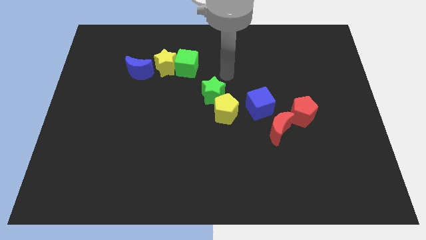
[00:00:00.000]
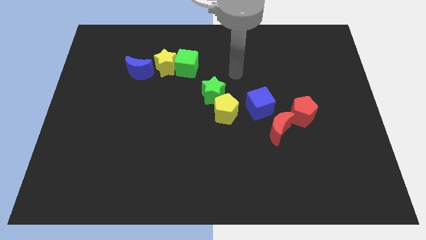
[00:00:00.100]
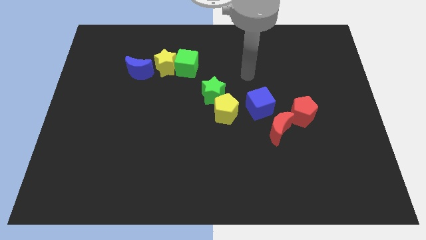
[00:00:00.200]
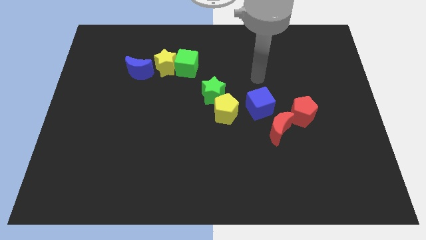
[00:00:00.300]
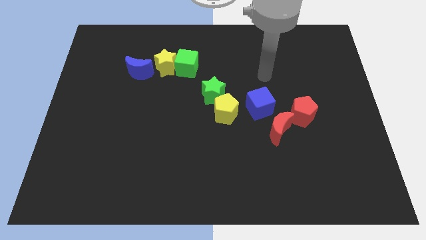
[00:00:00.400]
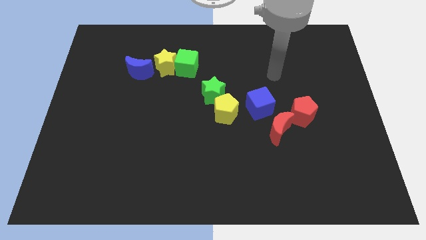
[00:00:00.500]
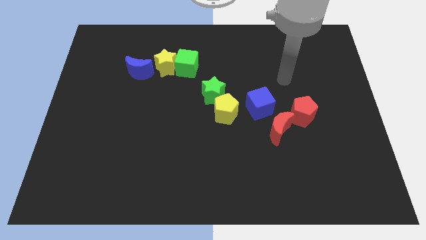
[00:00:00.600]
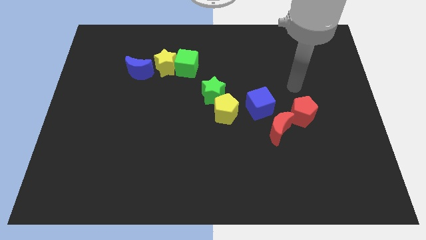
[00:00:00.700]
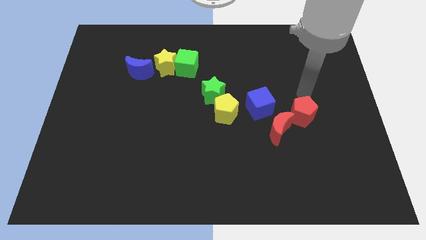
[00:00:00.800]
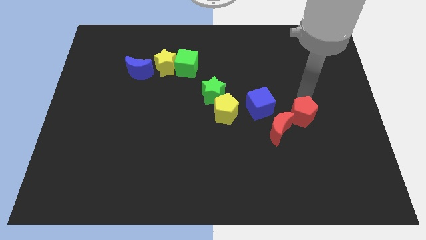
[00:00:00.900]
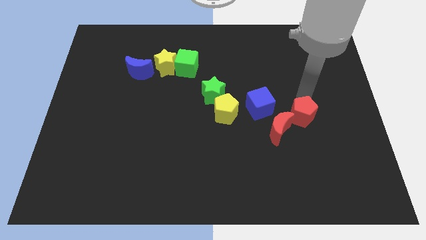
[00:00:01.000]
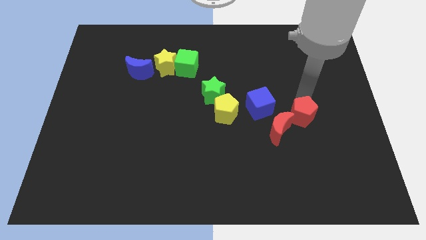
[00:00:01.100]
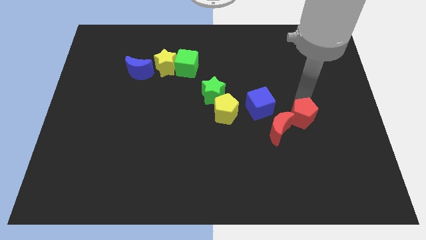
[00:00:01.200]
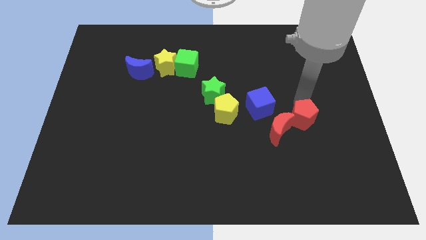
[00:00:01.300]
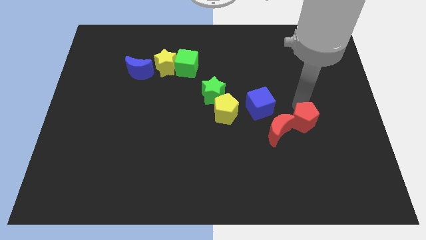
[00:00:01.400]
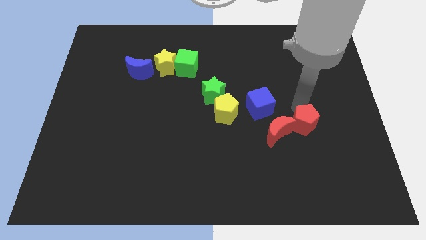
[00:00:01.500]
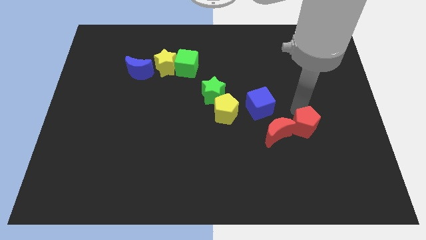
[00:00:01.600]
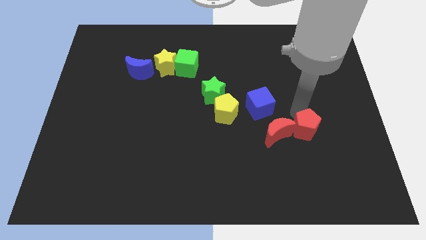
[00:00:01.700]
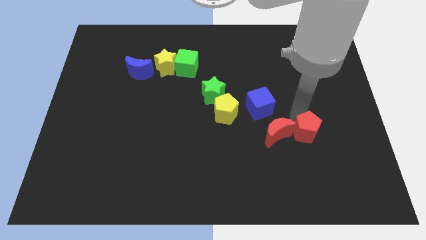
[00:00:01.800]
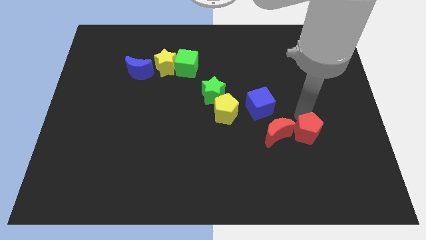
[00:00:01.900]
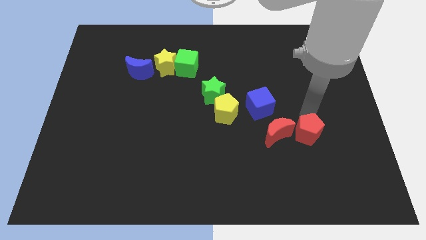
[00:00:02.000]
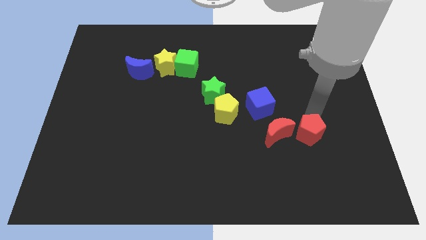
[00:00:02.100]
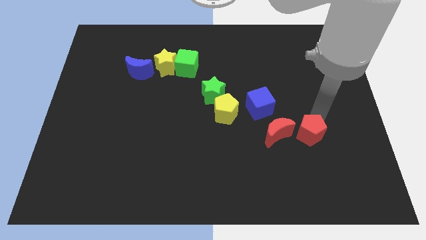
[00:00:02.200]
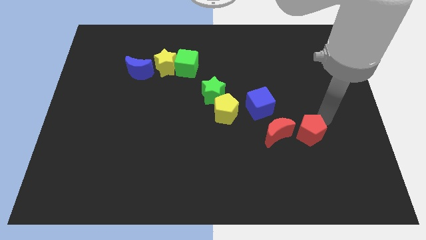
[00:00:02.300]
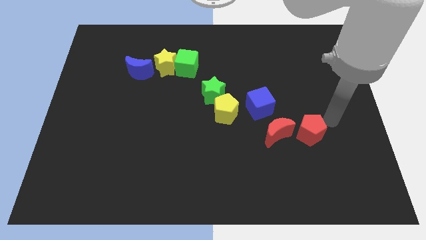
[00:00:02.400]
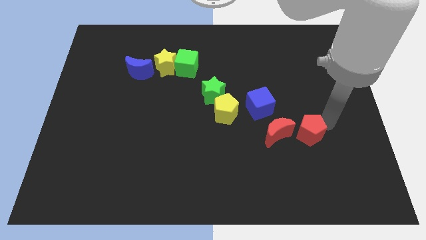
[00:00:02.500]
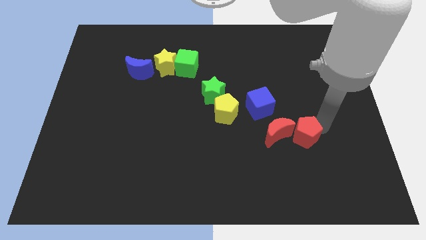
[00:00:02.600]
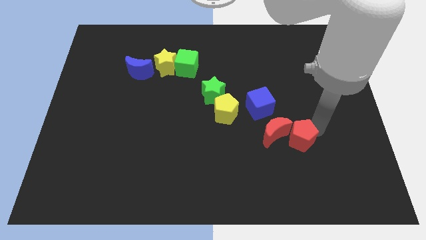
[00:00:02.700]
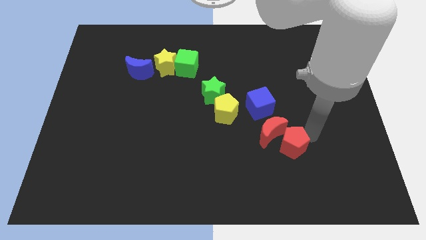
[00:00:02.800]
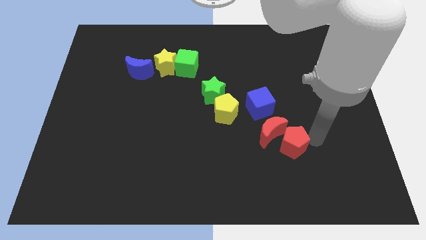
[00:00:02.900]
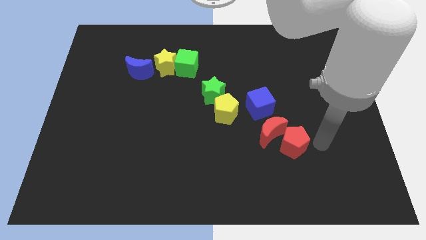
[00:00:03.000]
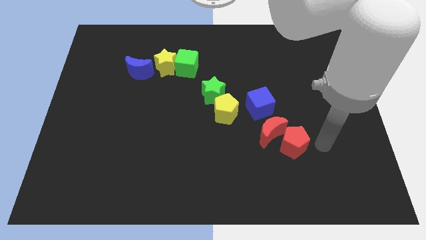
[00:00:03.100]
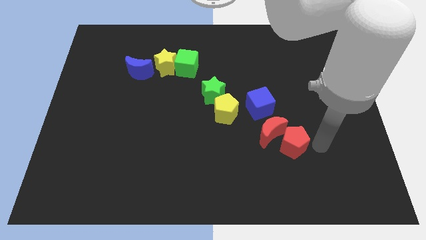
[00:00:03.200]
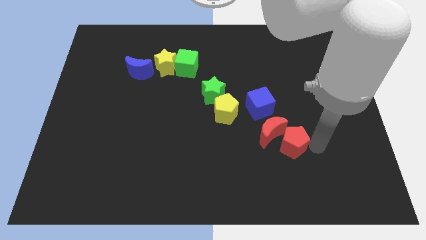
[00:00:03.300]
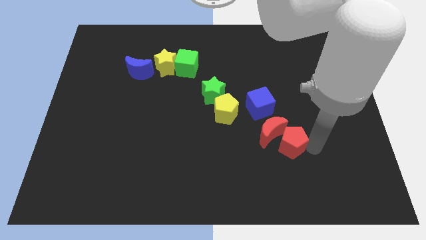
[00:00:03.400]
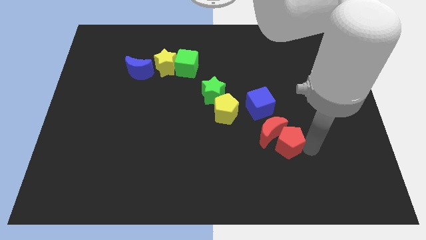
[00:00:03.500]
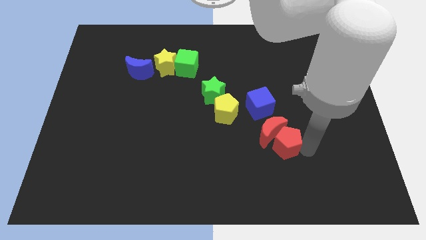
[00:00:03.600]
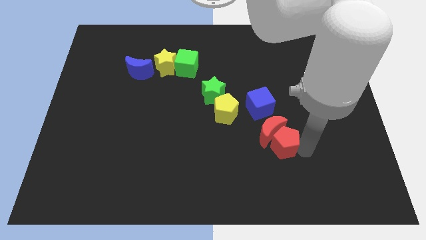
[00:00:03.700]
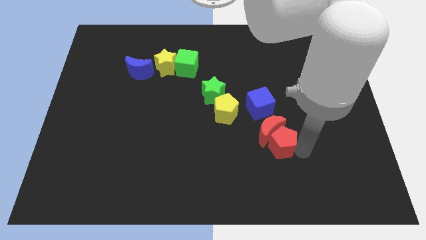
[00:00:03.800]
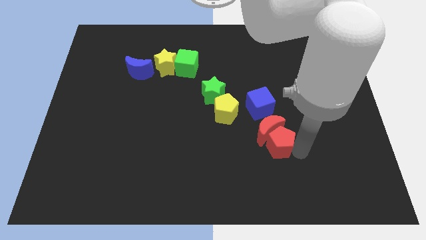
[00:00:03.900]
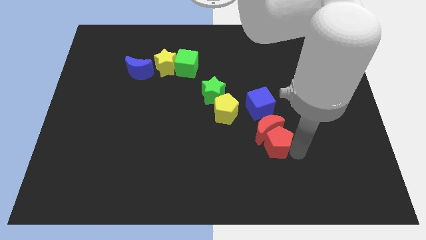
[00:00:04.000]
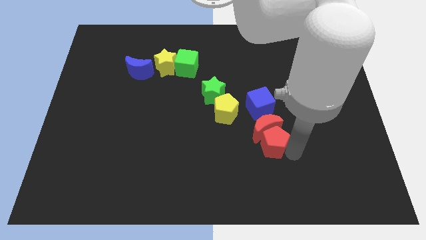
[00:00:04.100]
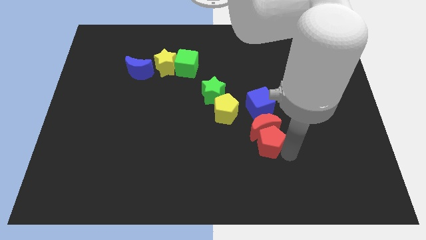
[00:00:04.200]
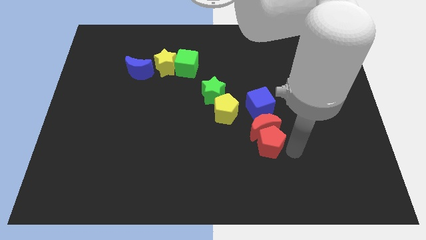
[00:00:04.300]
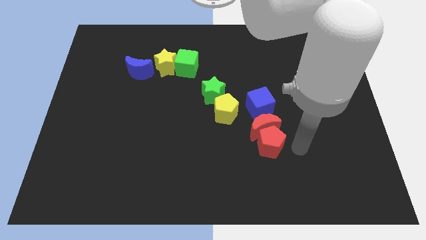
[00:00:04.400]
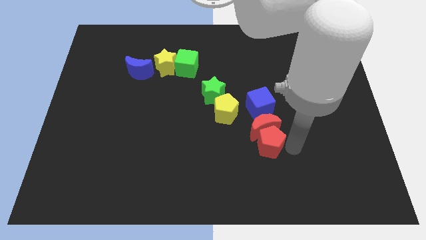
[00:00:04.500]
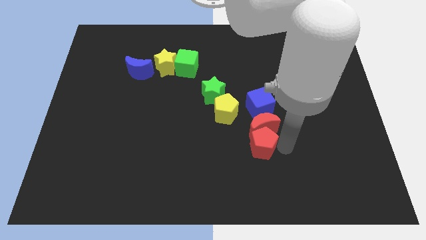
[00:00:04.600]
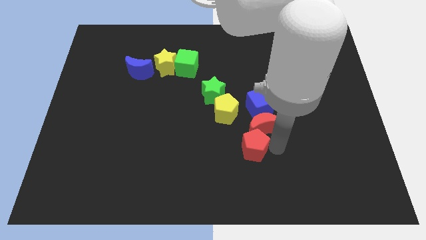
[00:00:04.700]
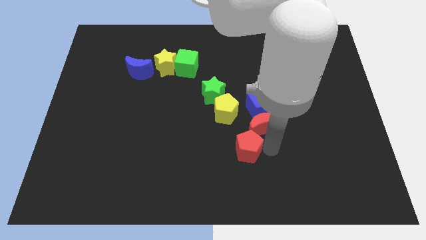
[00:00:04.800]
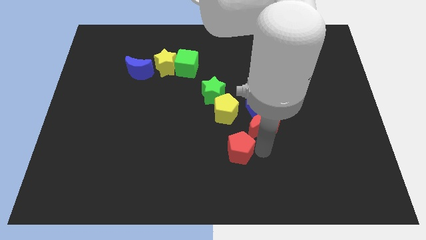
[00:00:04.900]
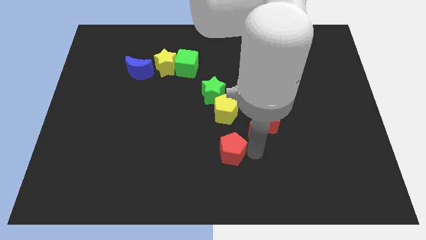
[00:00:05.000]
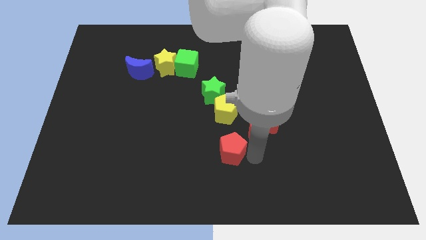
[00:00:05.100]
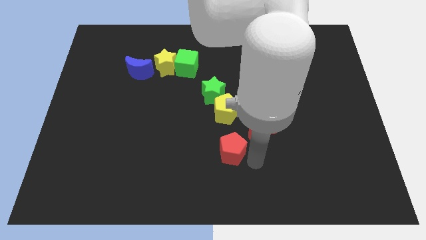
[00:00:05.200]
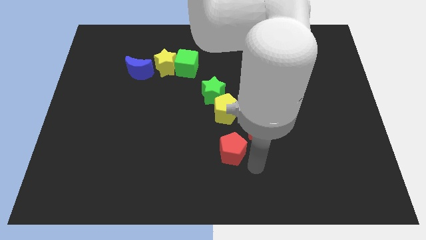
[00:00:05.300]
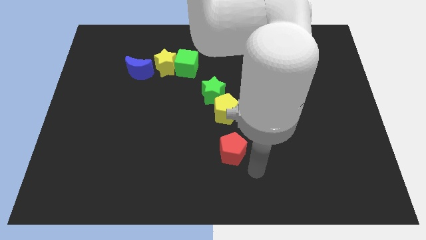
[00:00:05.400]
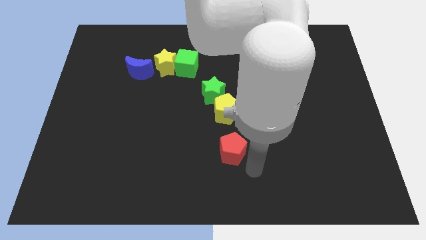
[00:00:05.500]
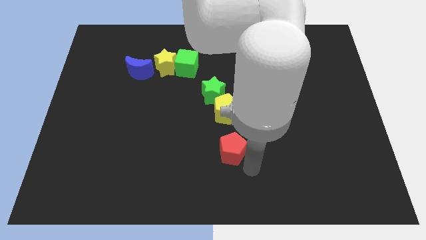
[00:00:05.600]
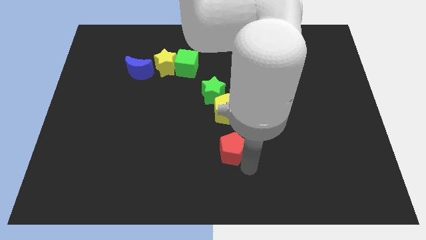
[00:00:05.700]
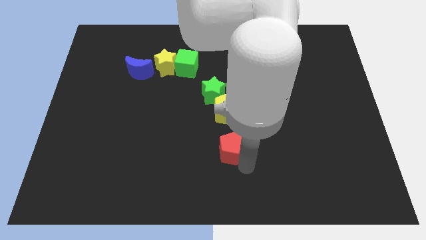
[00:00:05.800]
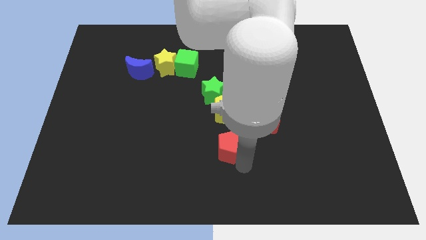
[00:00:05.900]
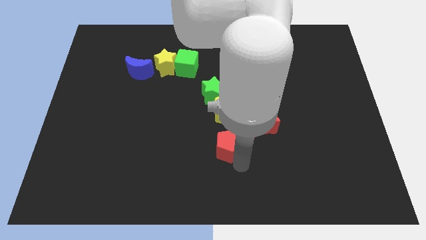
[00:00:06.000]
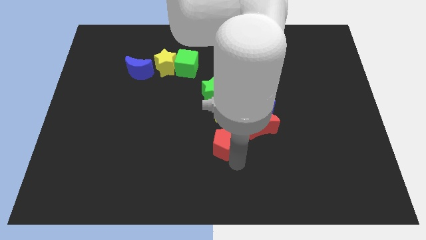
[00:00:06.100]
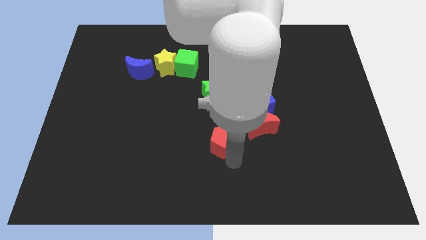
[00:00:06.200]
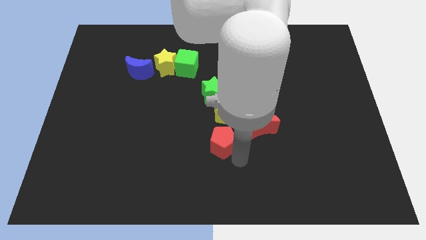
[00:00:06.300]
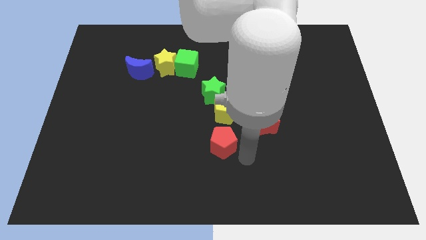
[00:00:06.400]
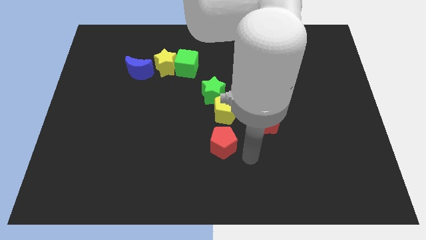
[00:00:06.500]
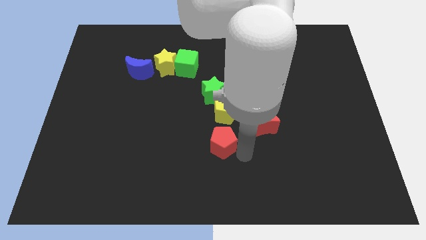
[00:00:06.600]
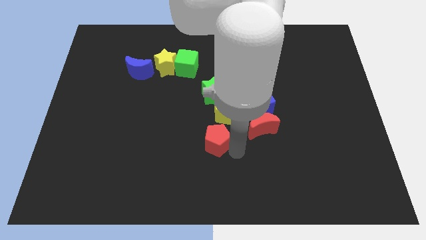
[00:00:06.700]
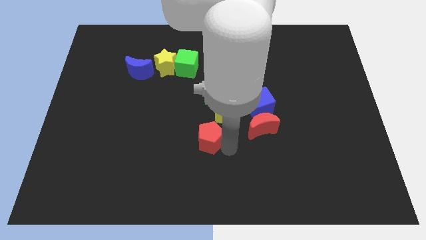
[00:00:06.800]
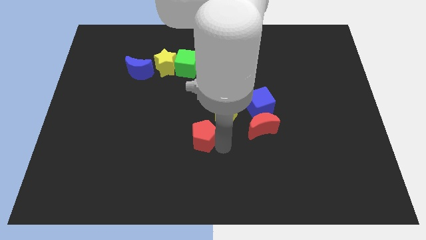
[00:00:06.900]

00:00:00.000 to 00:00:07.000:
slide the red pentagon left

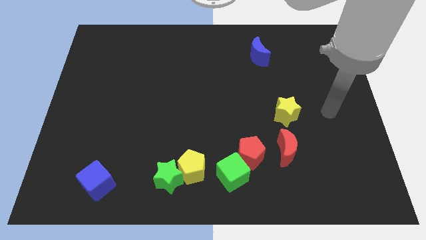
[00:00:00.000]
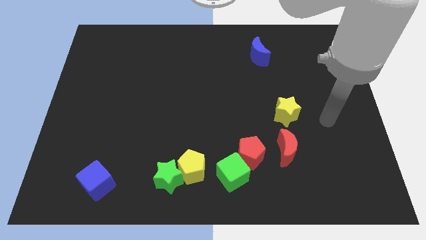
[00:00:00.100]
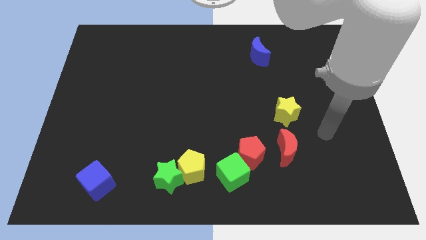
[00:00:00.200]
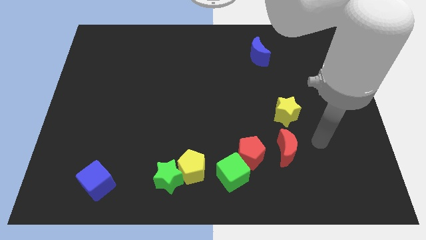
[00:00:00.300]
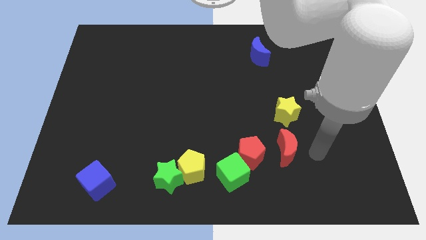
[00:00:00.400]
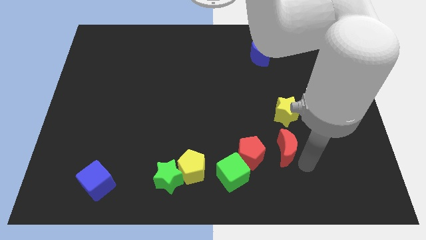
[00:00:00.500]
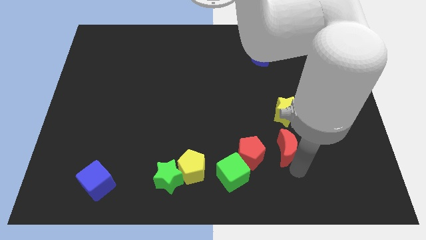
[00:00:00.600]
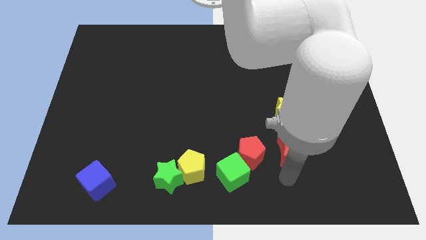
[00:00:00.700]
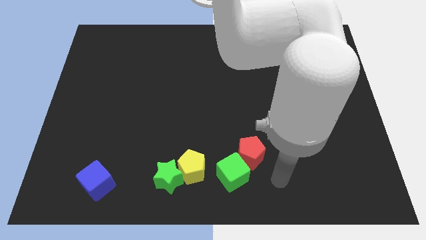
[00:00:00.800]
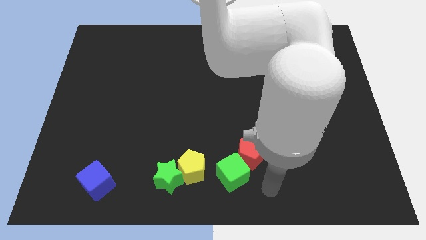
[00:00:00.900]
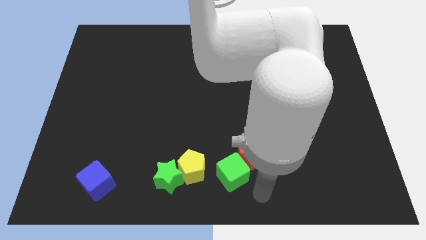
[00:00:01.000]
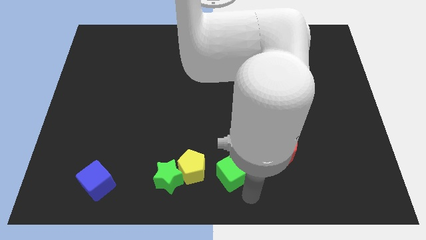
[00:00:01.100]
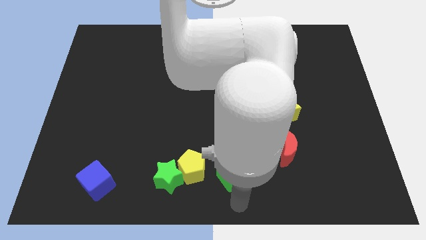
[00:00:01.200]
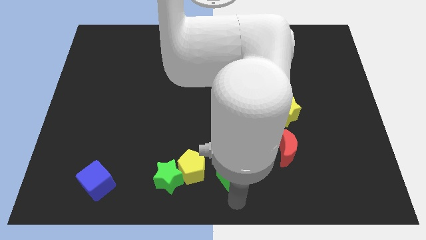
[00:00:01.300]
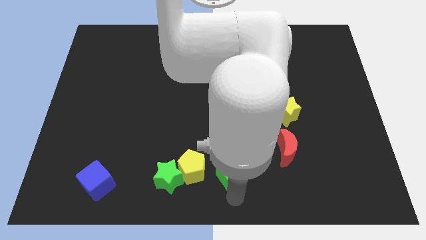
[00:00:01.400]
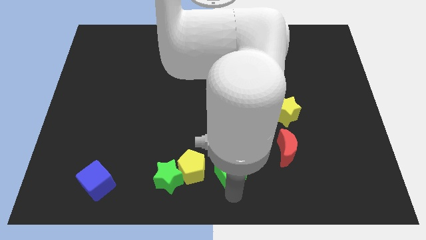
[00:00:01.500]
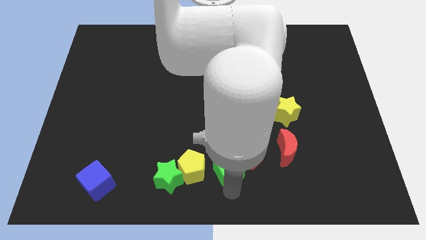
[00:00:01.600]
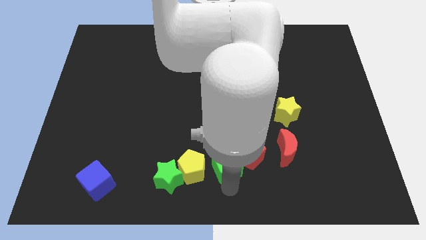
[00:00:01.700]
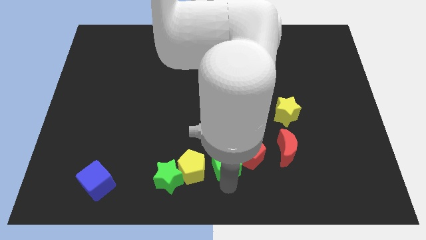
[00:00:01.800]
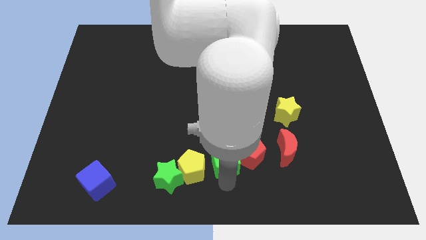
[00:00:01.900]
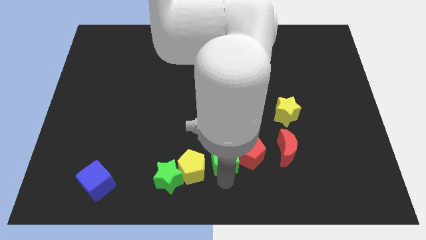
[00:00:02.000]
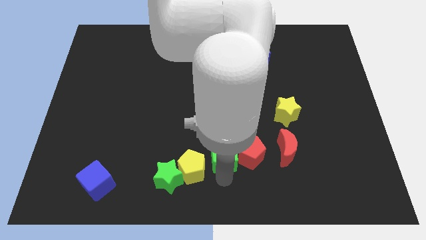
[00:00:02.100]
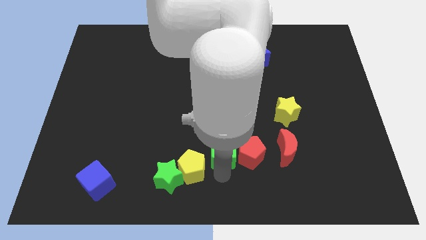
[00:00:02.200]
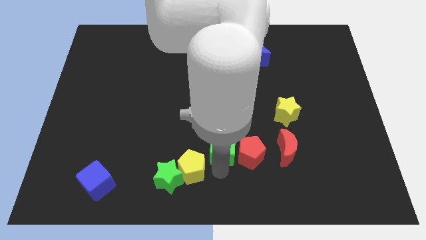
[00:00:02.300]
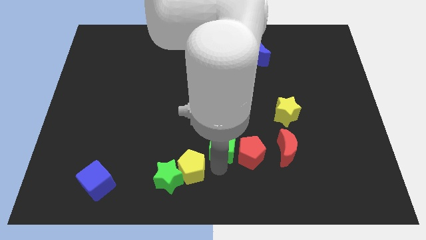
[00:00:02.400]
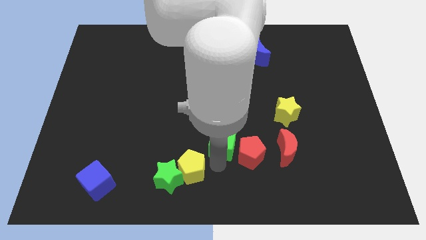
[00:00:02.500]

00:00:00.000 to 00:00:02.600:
push the green cube a little up
